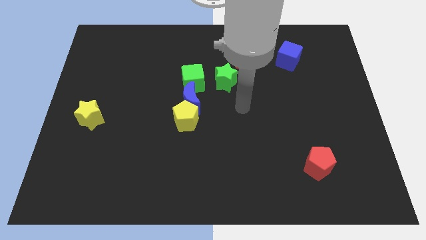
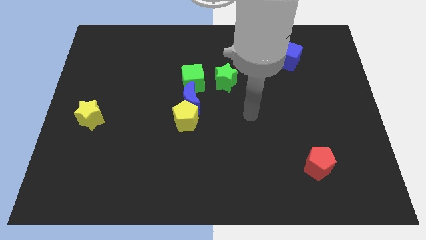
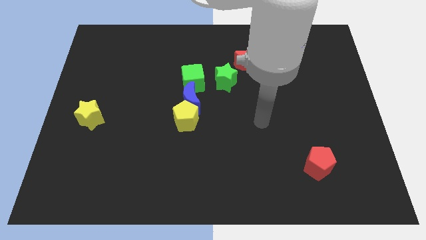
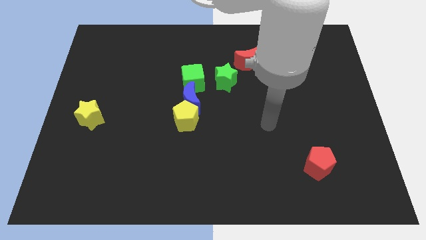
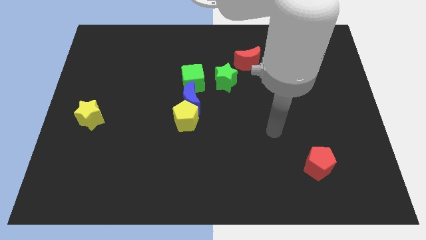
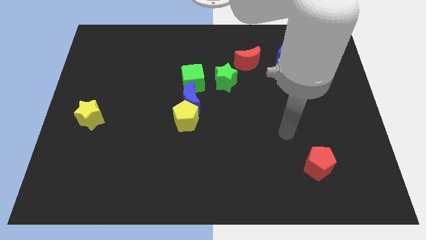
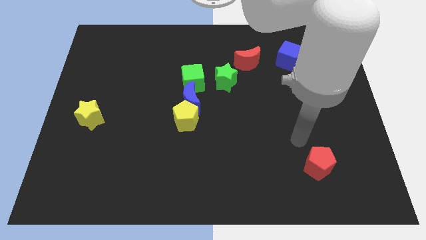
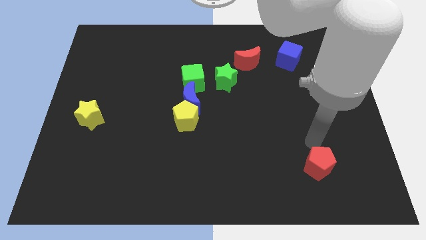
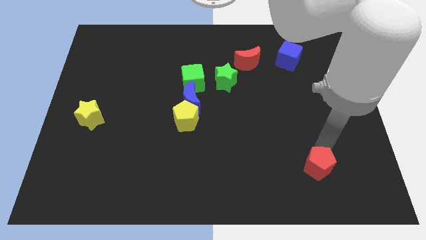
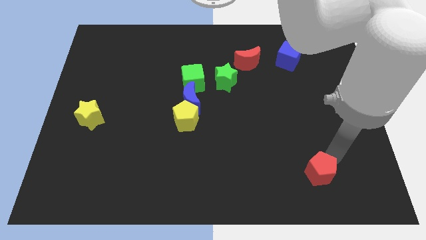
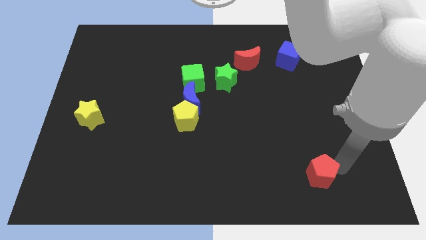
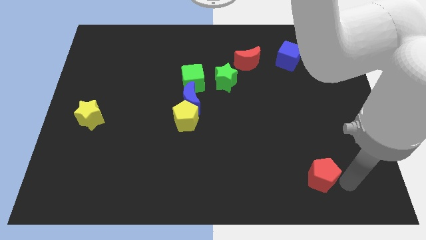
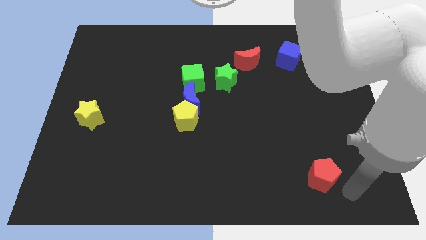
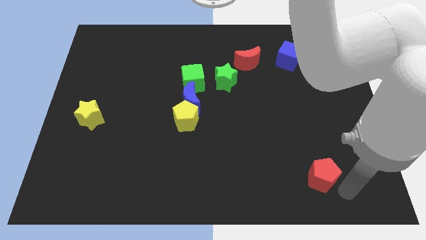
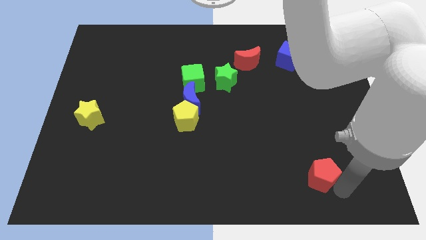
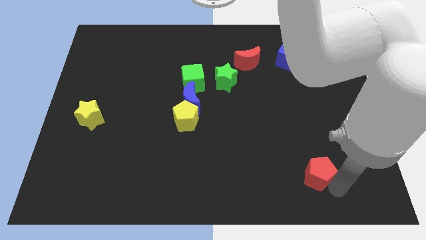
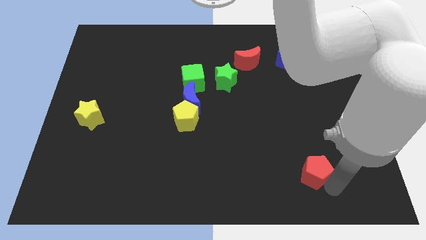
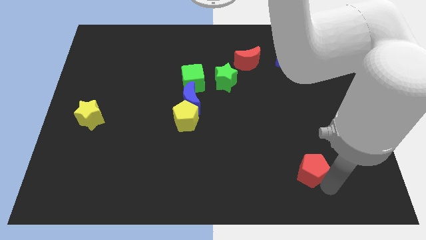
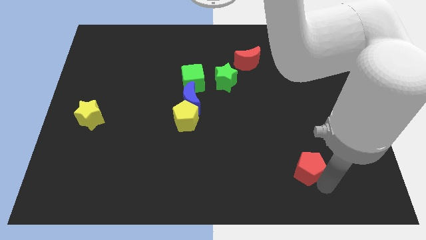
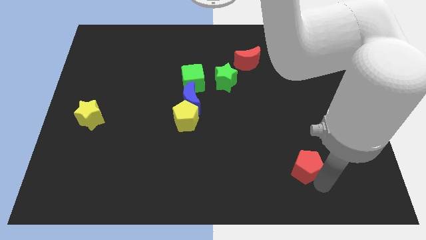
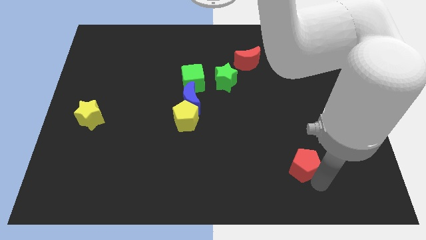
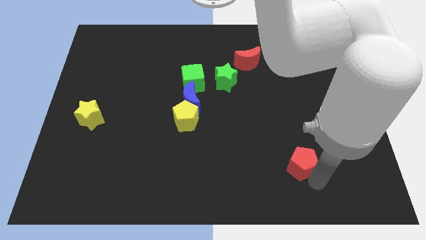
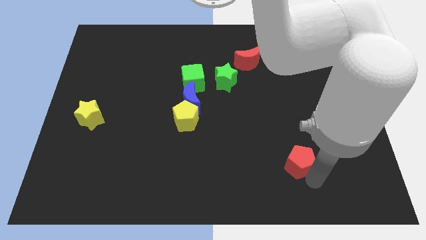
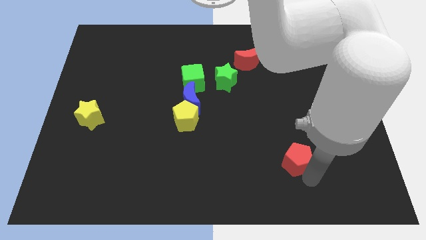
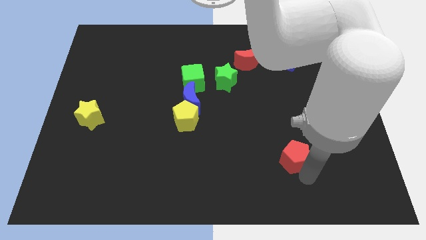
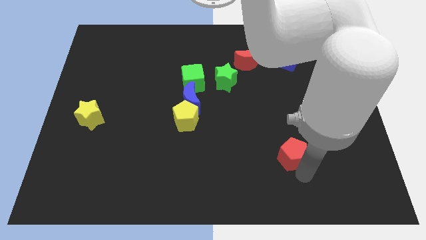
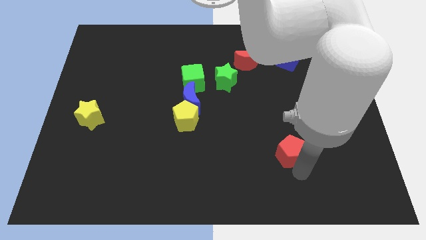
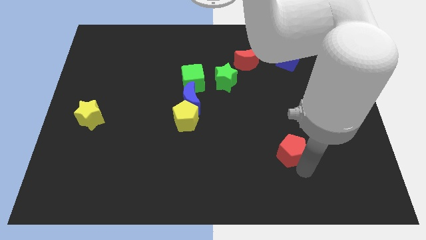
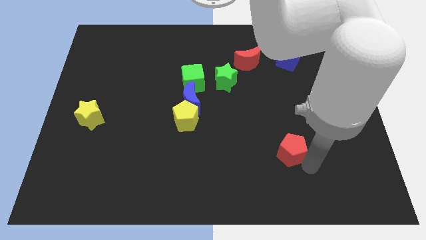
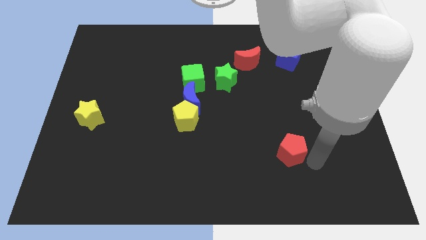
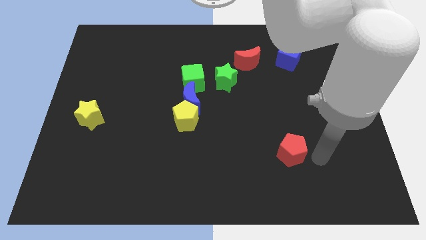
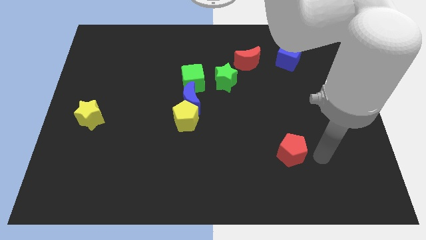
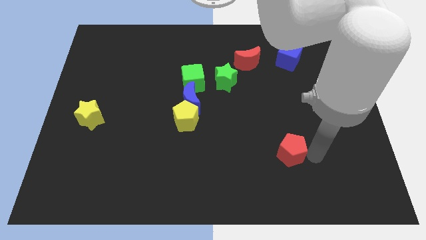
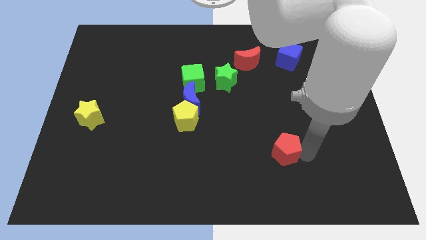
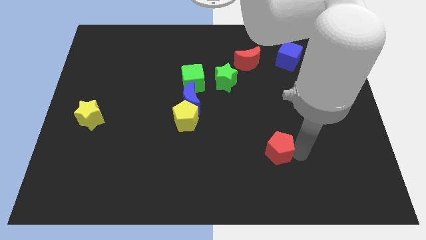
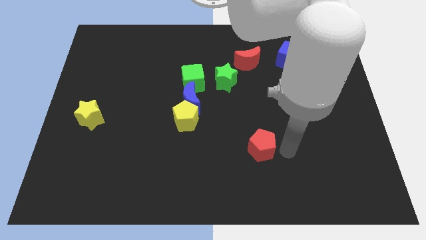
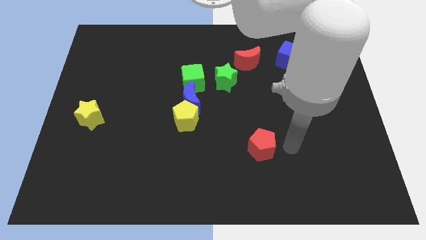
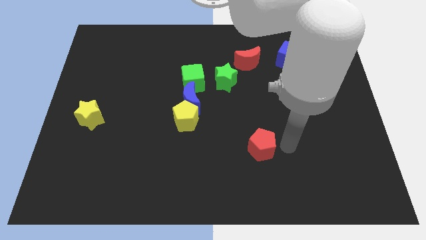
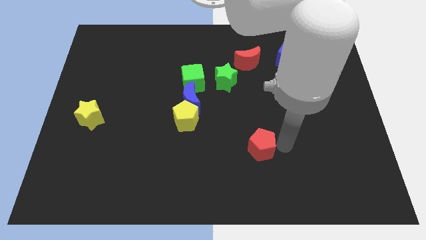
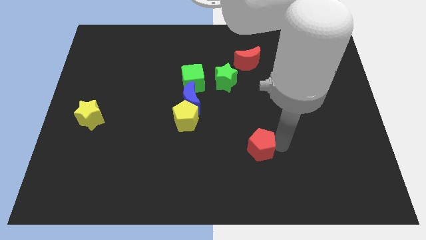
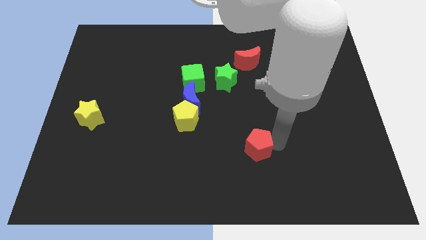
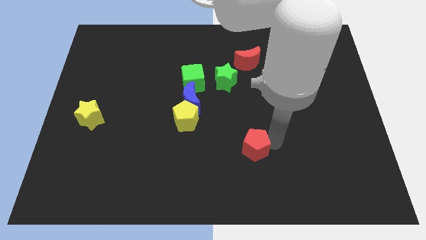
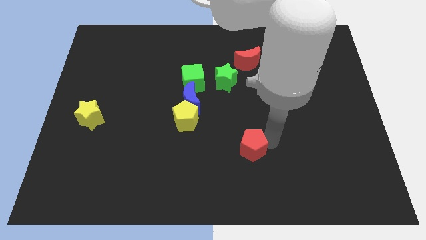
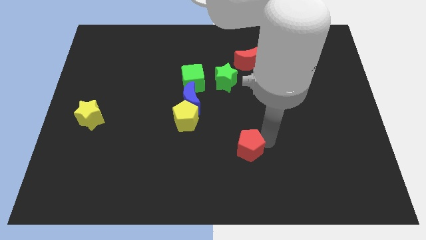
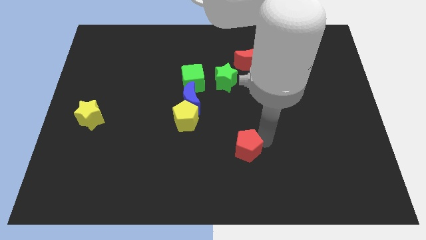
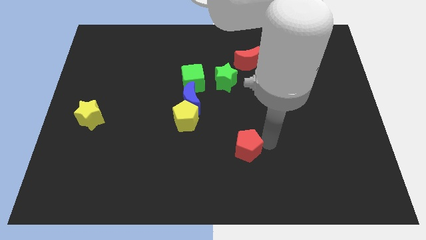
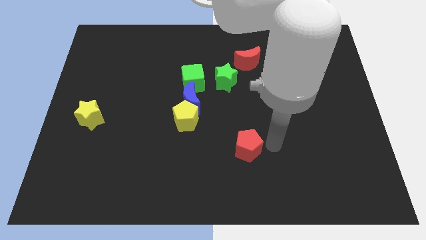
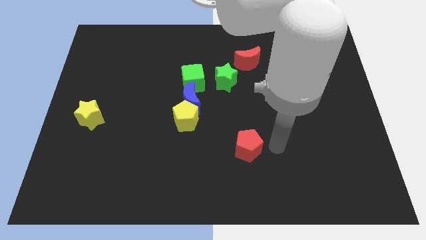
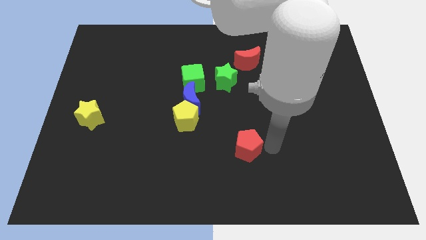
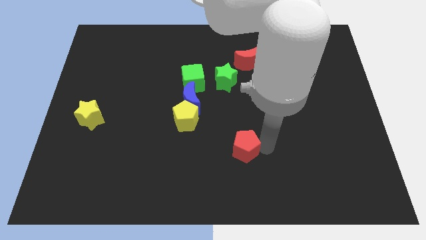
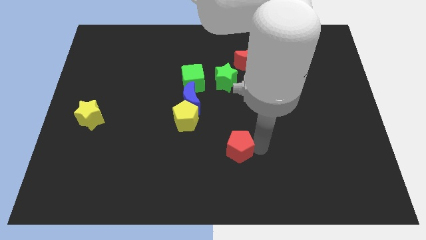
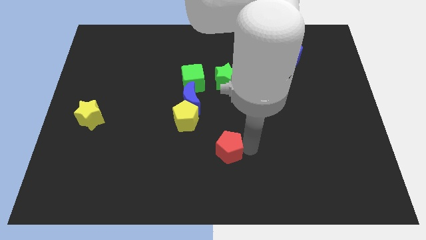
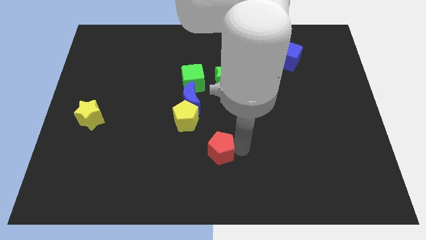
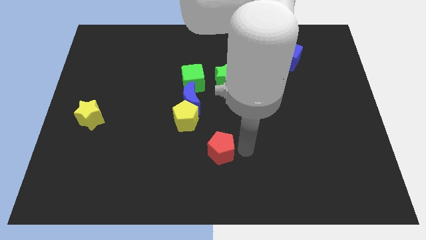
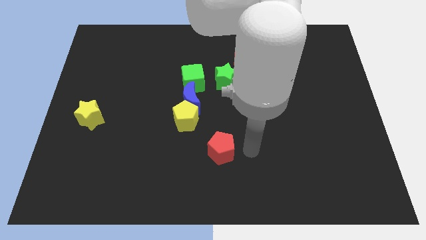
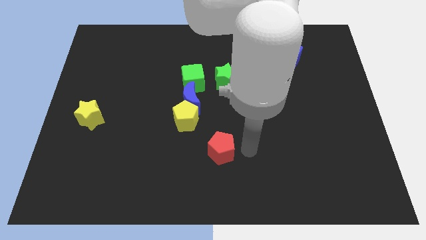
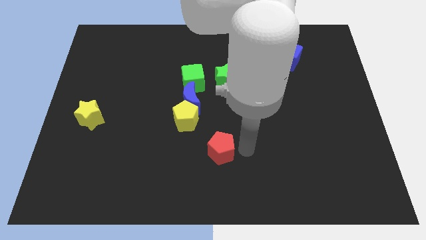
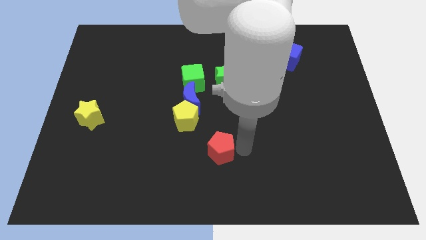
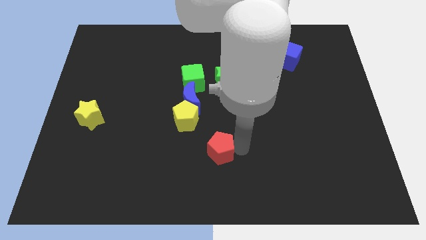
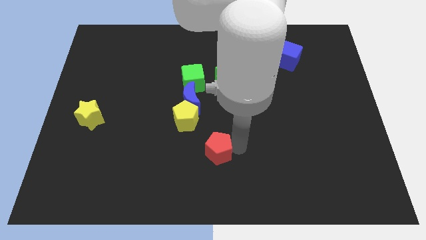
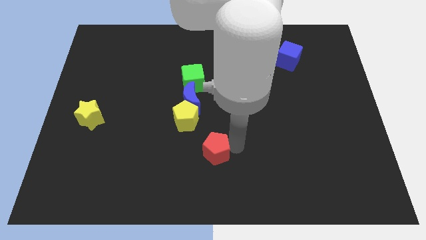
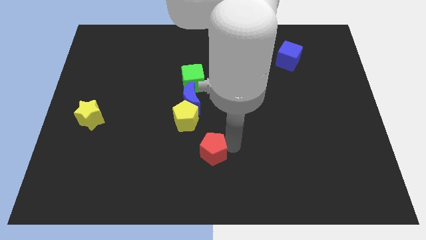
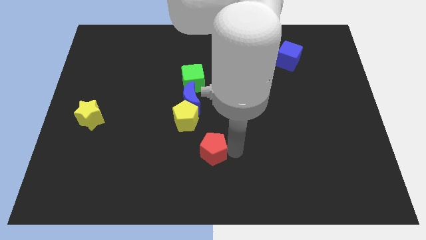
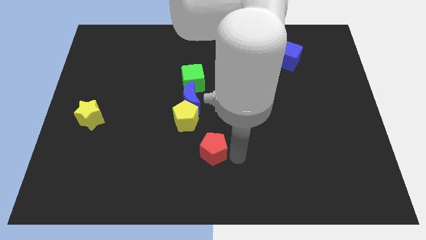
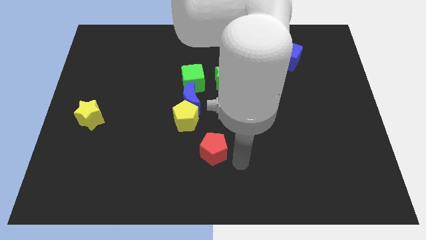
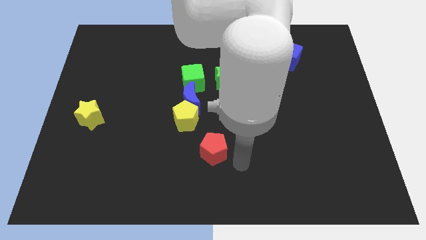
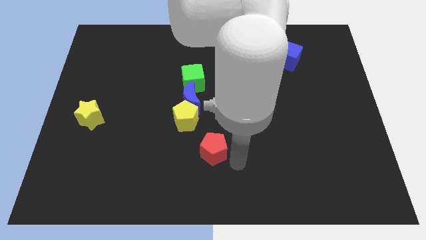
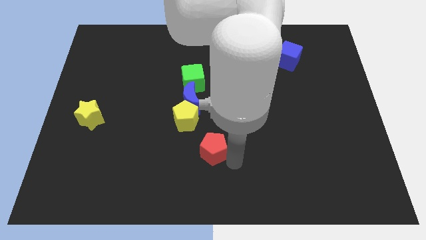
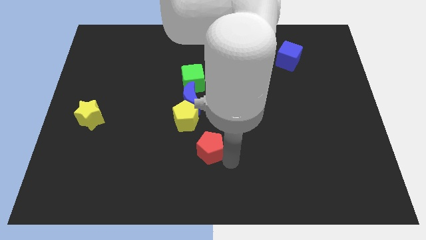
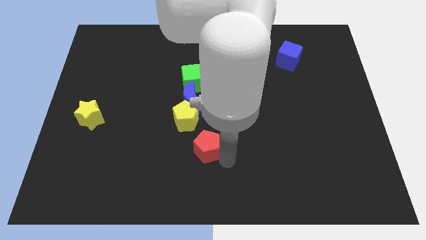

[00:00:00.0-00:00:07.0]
put the red pentagon to the bottom of the blue moon
